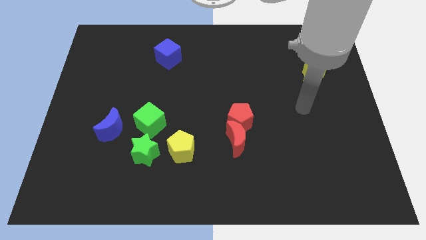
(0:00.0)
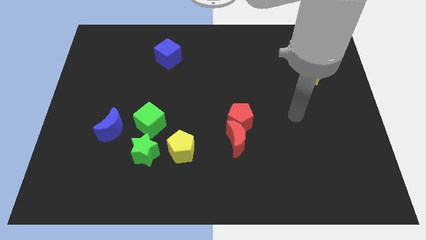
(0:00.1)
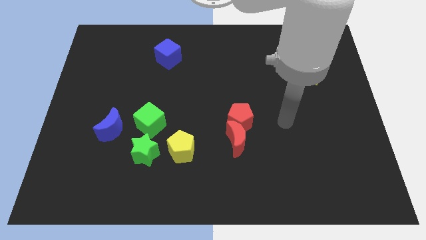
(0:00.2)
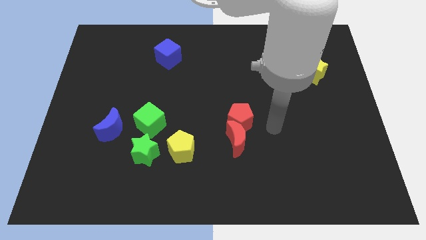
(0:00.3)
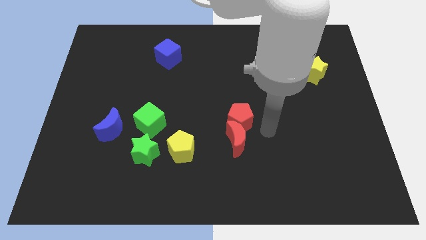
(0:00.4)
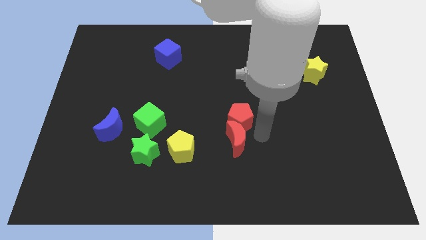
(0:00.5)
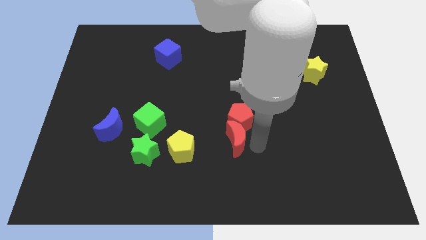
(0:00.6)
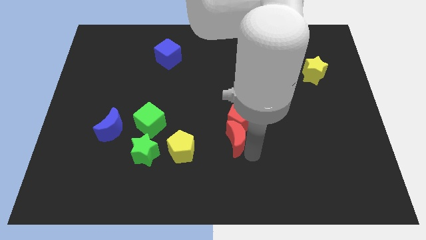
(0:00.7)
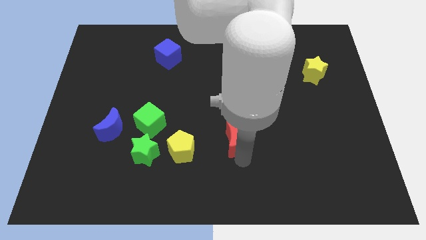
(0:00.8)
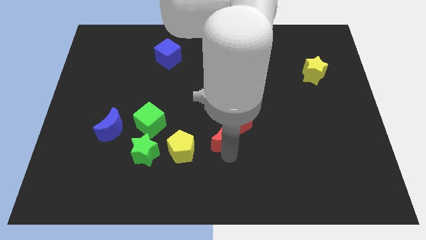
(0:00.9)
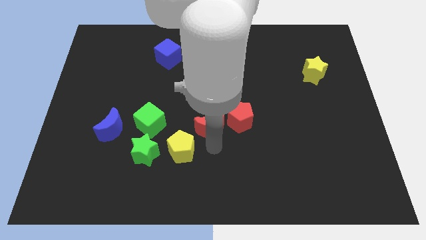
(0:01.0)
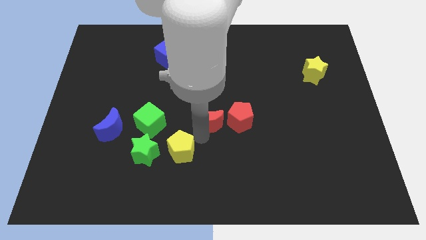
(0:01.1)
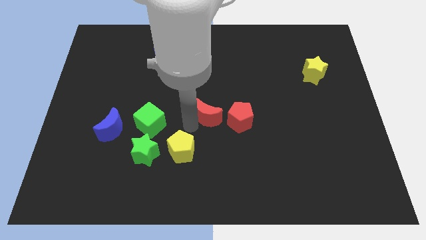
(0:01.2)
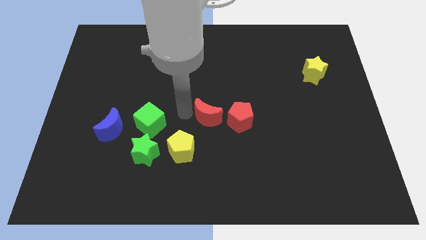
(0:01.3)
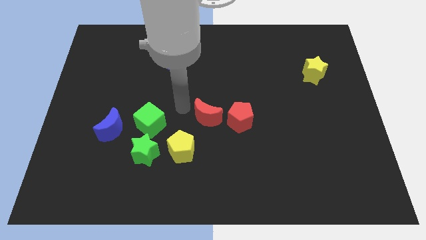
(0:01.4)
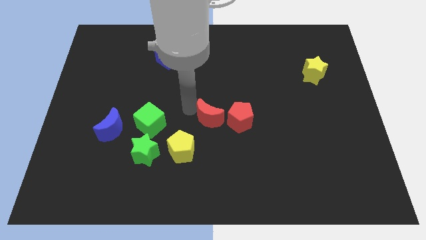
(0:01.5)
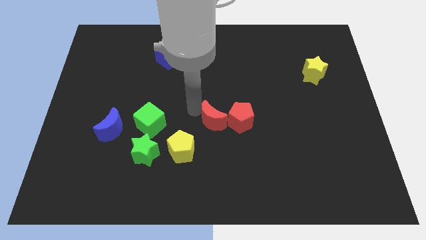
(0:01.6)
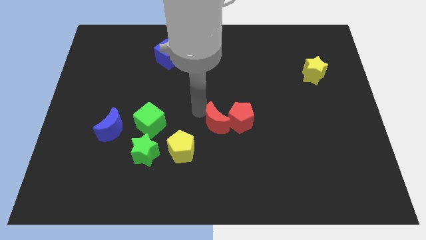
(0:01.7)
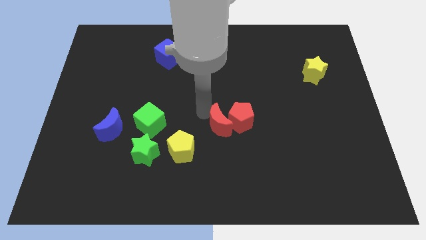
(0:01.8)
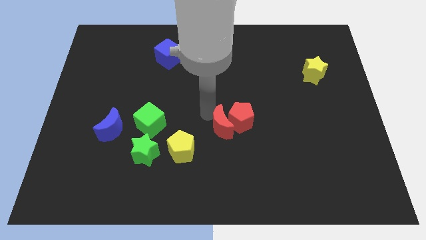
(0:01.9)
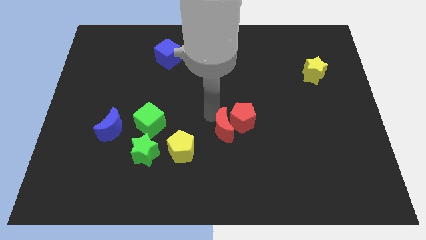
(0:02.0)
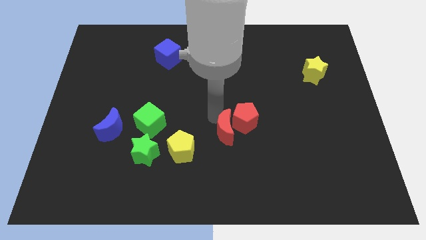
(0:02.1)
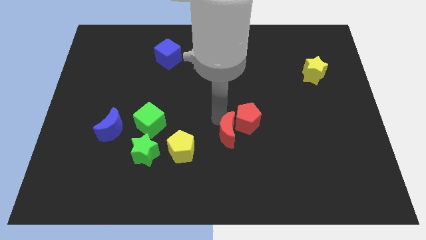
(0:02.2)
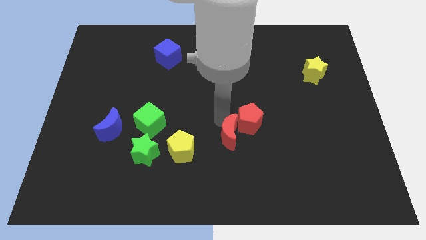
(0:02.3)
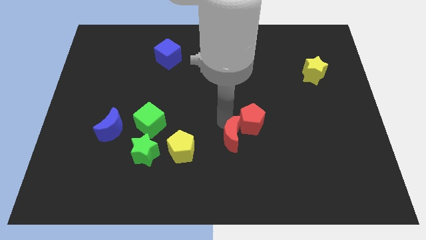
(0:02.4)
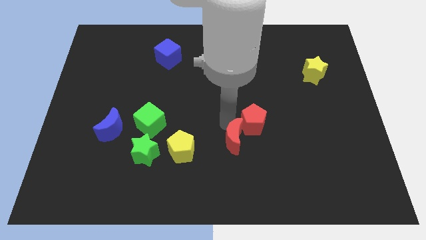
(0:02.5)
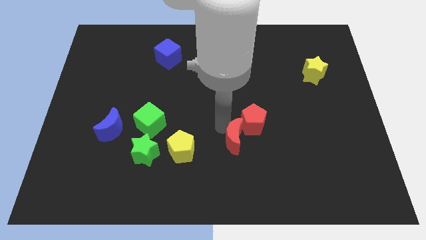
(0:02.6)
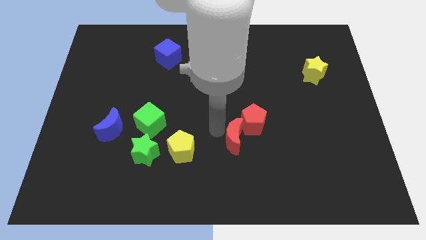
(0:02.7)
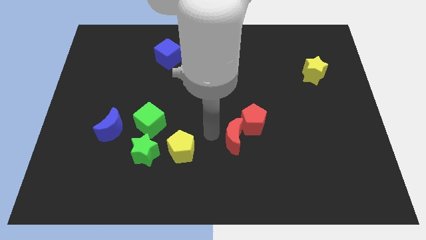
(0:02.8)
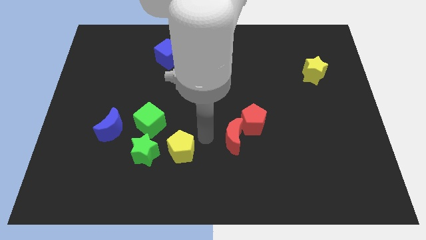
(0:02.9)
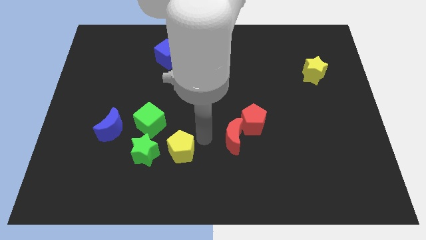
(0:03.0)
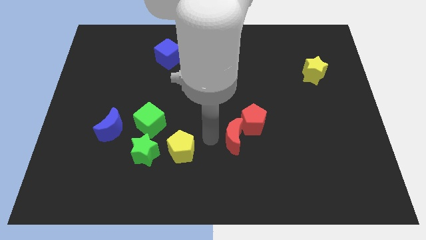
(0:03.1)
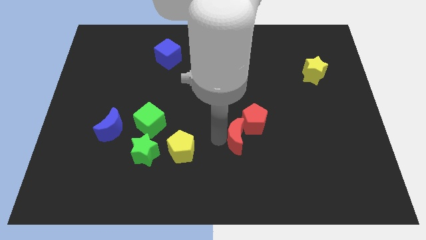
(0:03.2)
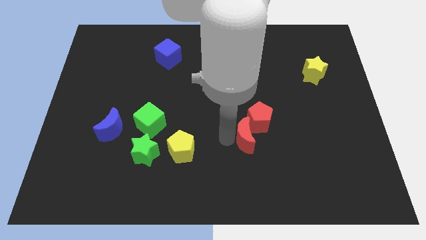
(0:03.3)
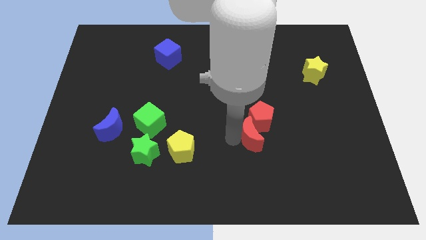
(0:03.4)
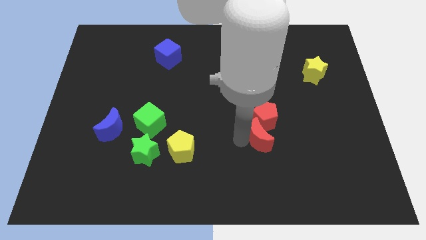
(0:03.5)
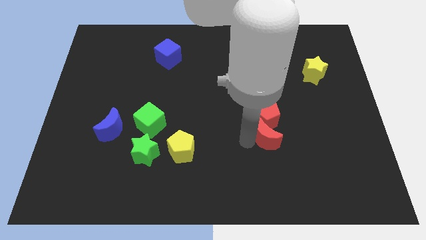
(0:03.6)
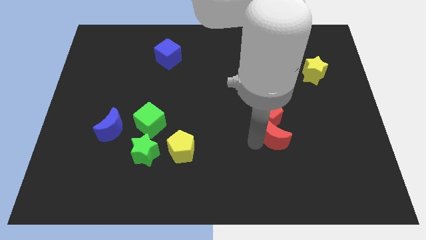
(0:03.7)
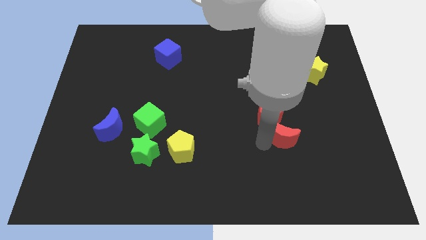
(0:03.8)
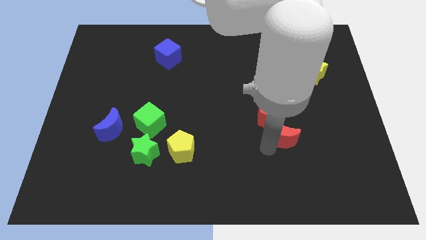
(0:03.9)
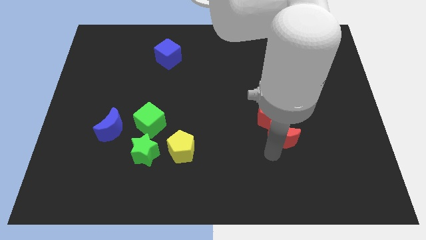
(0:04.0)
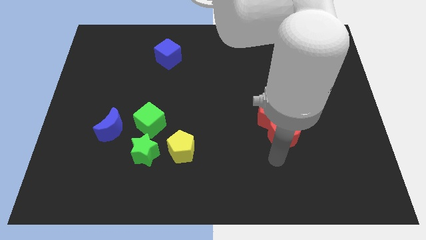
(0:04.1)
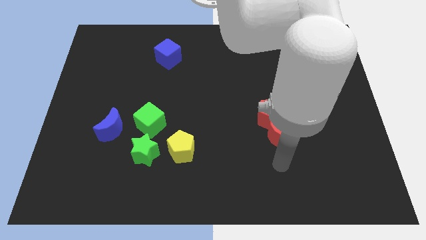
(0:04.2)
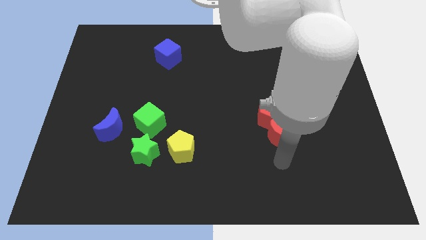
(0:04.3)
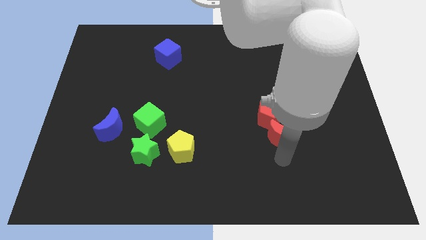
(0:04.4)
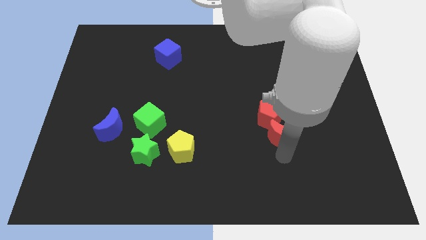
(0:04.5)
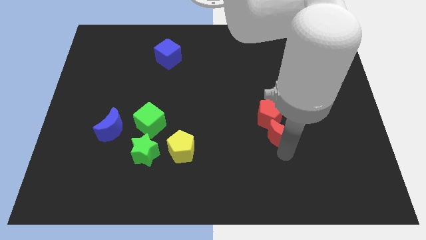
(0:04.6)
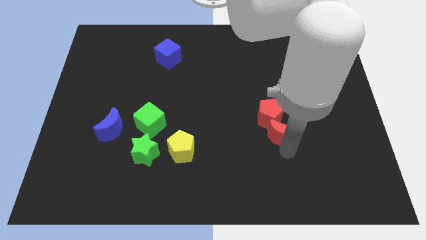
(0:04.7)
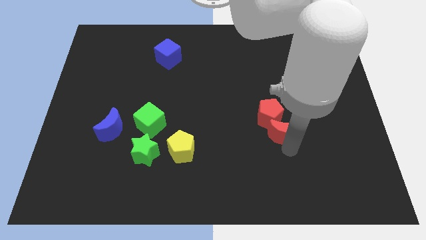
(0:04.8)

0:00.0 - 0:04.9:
slide the red moon a little upwards and to the right diagonally

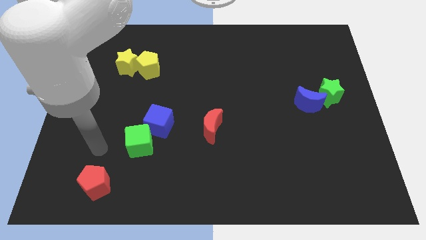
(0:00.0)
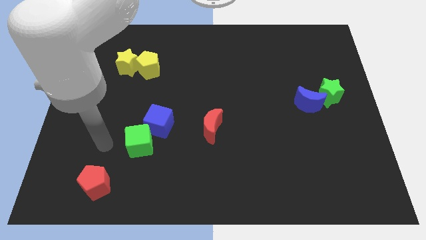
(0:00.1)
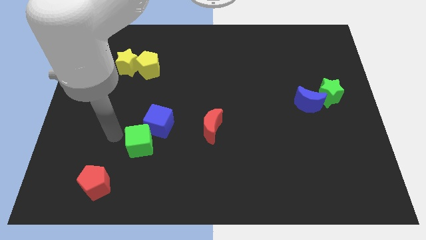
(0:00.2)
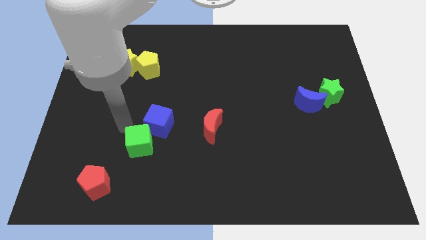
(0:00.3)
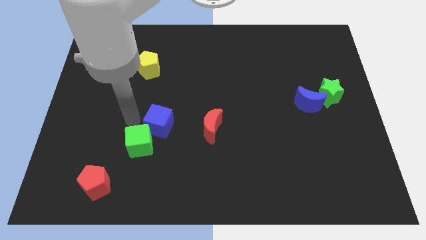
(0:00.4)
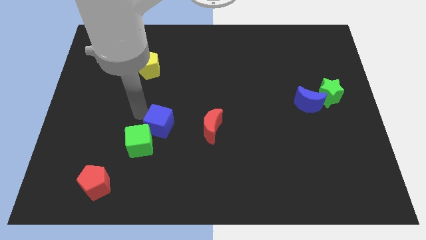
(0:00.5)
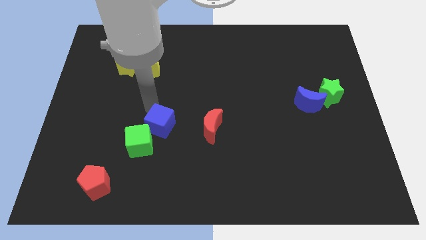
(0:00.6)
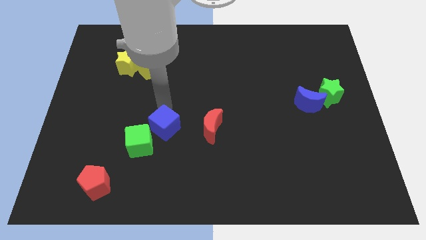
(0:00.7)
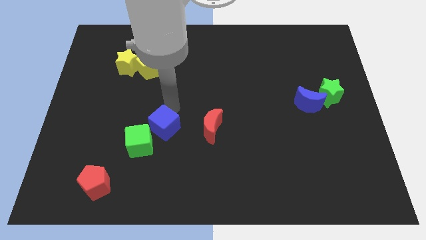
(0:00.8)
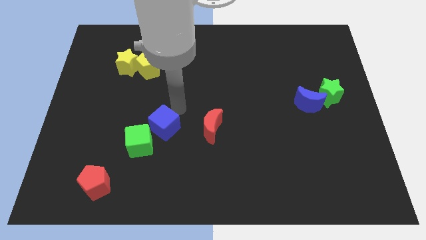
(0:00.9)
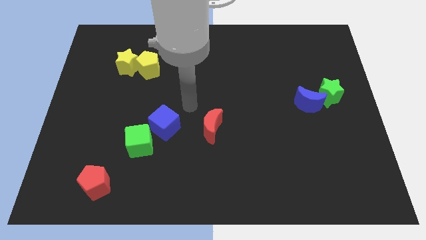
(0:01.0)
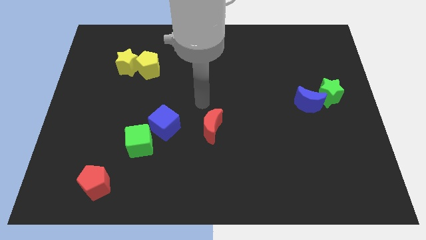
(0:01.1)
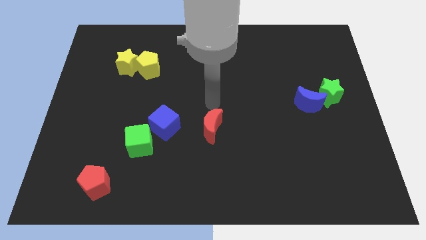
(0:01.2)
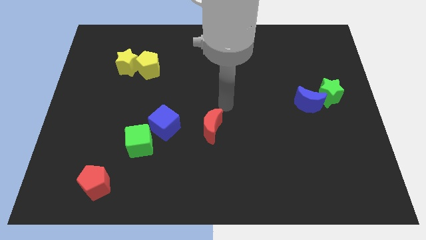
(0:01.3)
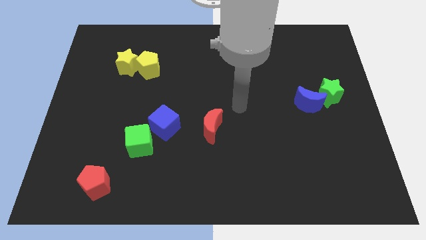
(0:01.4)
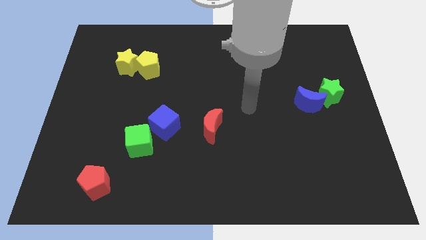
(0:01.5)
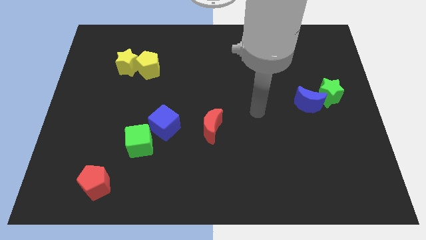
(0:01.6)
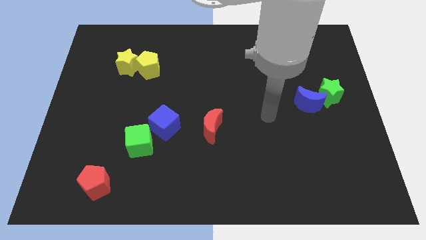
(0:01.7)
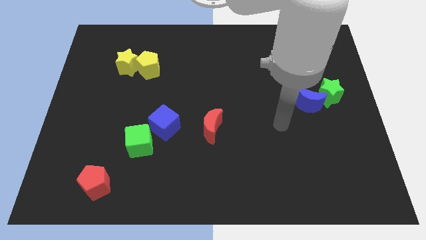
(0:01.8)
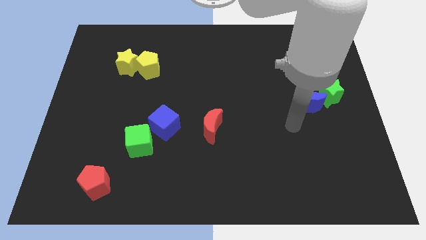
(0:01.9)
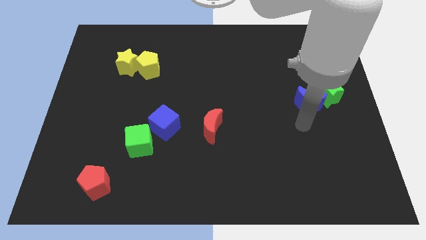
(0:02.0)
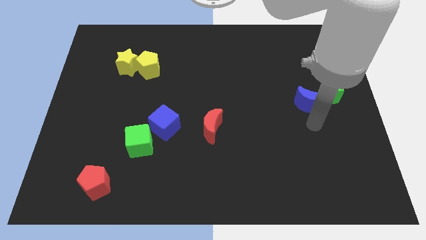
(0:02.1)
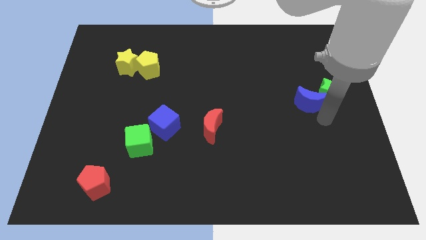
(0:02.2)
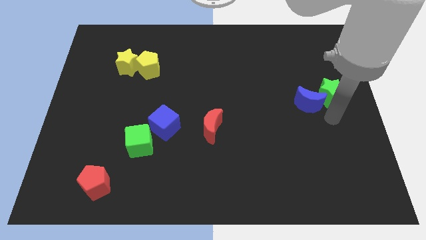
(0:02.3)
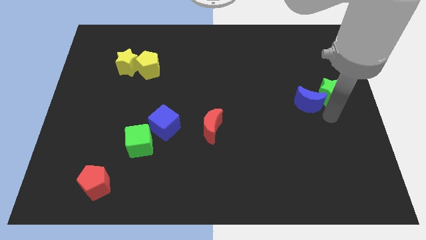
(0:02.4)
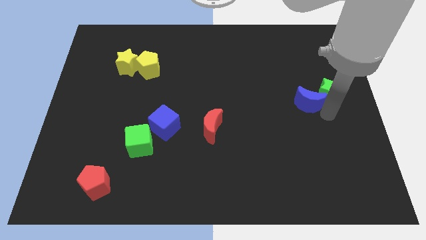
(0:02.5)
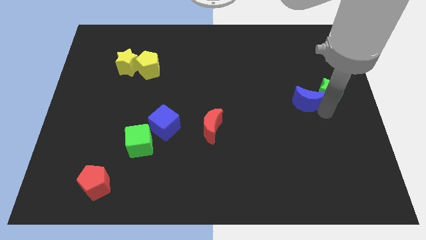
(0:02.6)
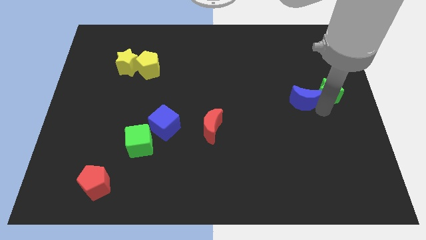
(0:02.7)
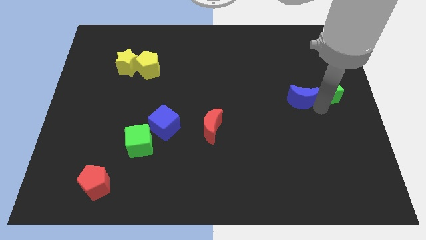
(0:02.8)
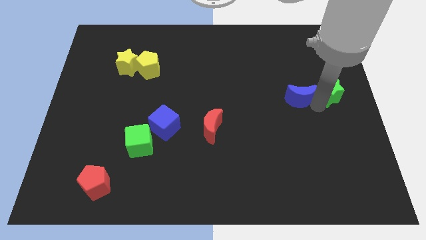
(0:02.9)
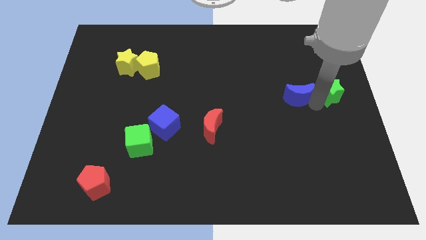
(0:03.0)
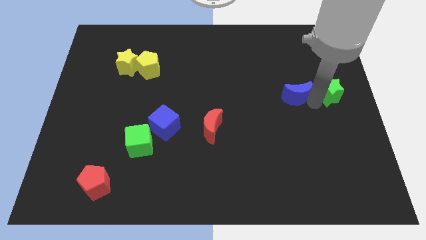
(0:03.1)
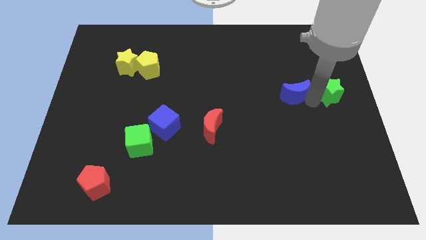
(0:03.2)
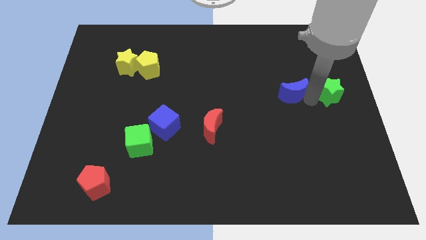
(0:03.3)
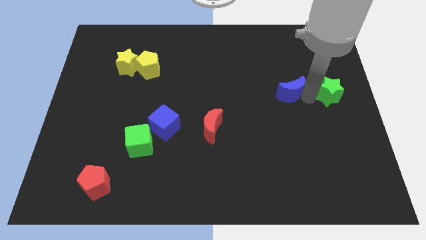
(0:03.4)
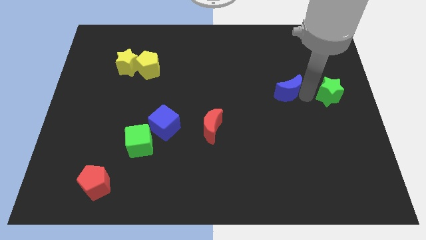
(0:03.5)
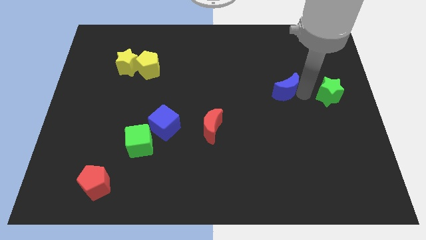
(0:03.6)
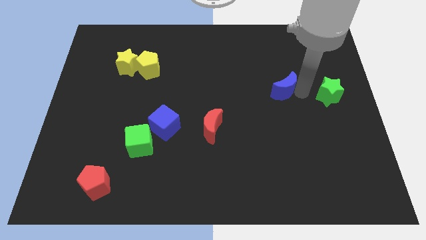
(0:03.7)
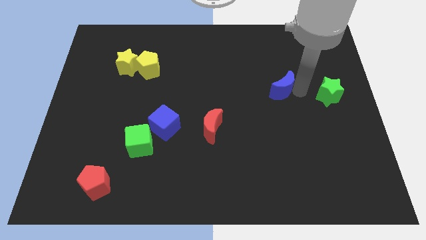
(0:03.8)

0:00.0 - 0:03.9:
slide the blue moon upwards and then left slightly
